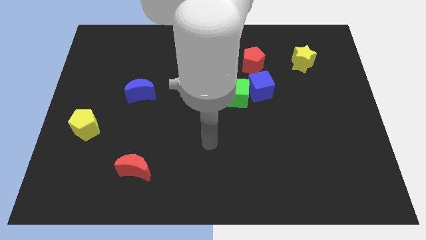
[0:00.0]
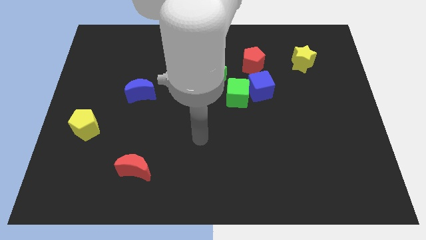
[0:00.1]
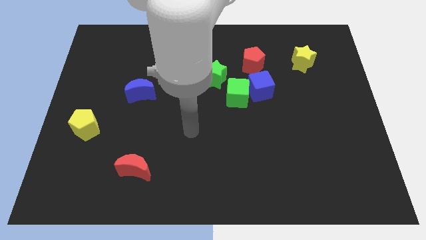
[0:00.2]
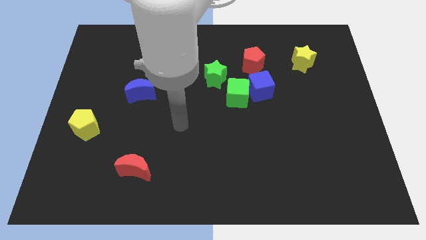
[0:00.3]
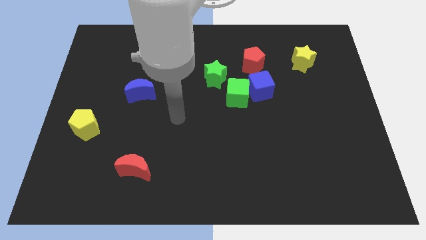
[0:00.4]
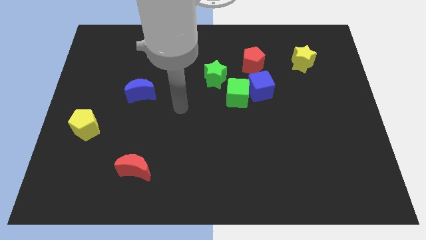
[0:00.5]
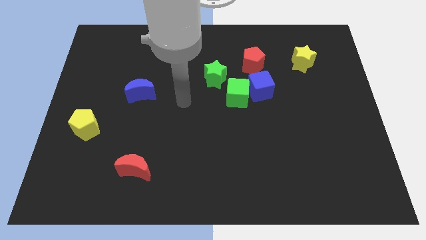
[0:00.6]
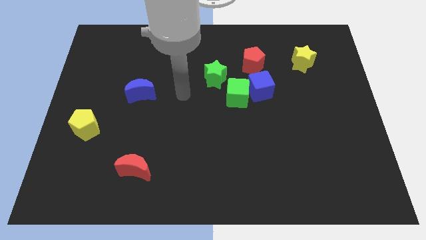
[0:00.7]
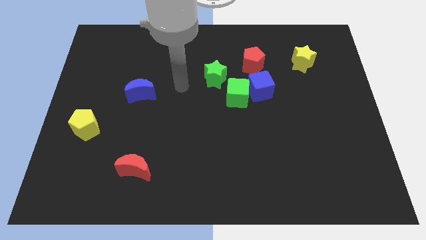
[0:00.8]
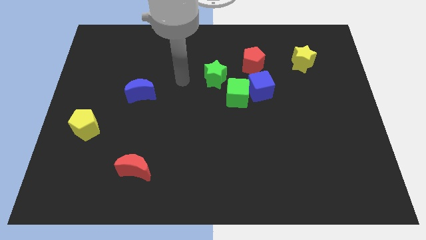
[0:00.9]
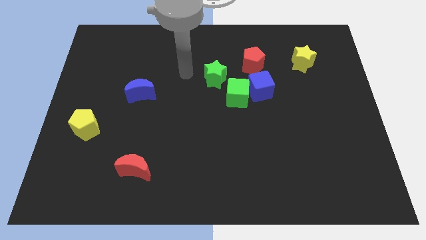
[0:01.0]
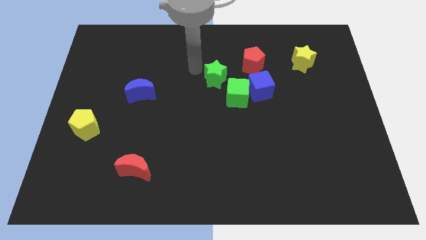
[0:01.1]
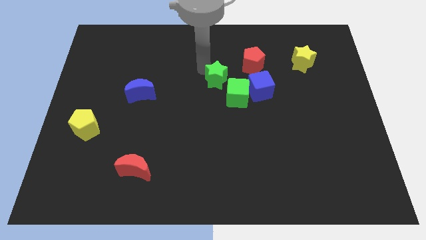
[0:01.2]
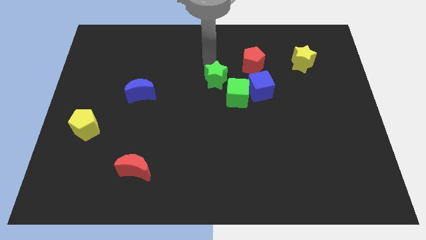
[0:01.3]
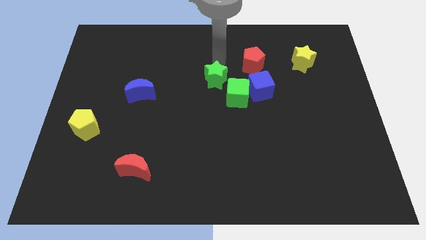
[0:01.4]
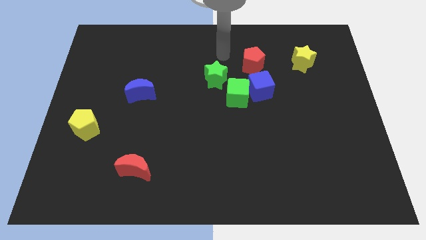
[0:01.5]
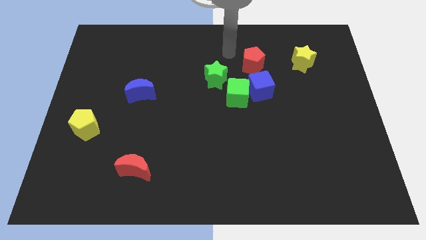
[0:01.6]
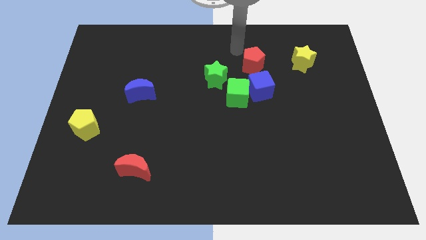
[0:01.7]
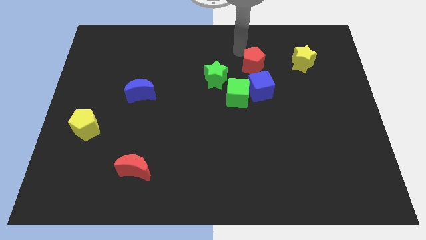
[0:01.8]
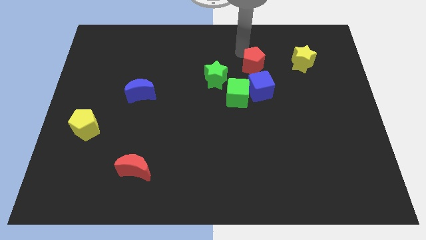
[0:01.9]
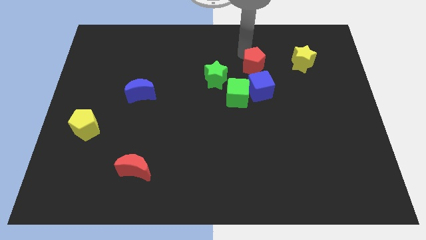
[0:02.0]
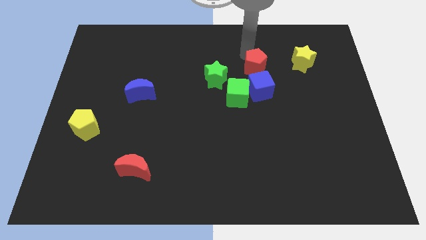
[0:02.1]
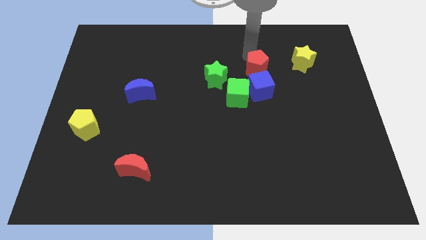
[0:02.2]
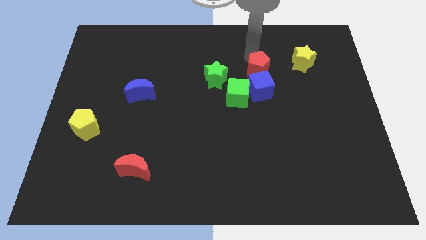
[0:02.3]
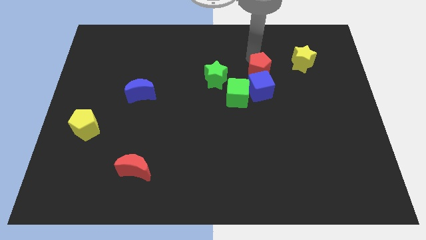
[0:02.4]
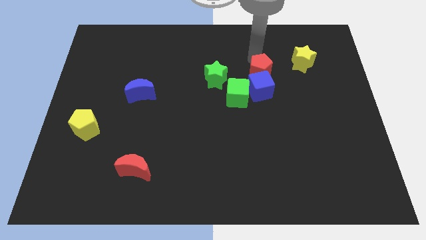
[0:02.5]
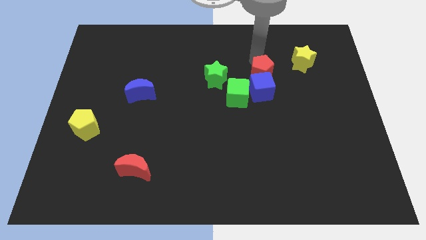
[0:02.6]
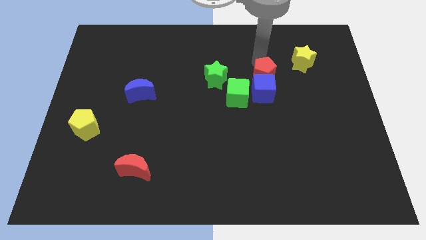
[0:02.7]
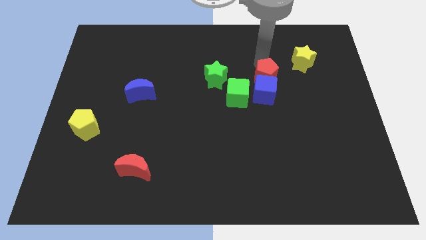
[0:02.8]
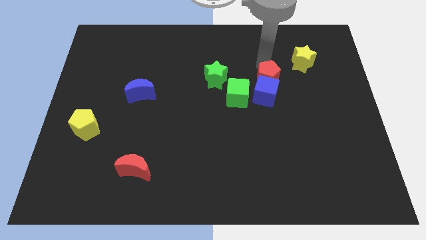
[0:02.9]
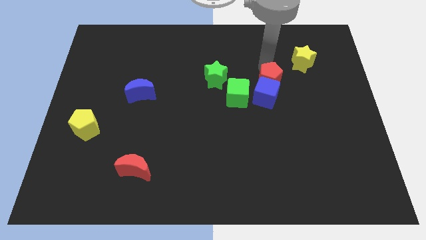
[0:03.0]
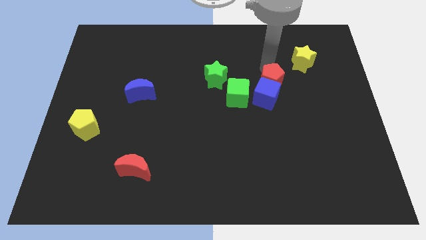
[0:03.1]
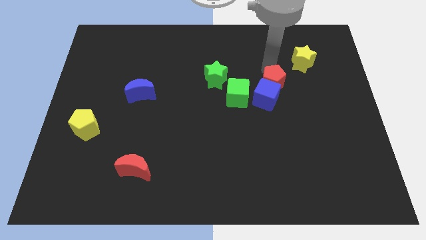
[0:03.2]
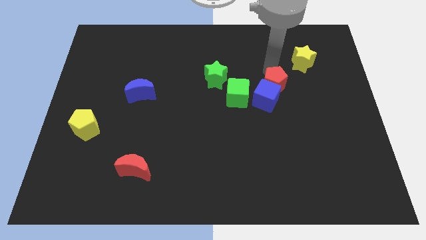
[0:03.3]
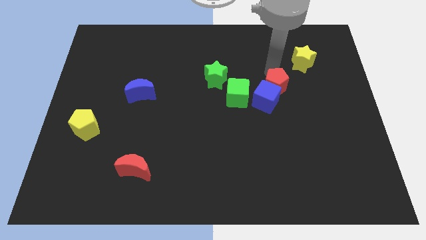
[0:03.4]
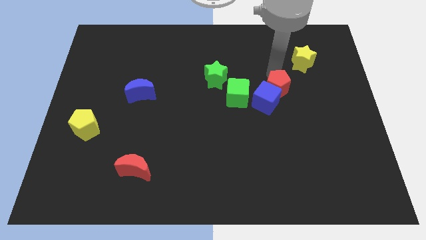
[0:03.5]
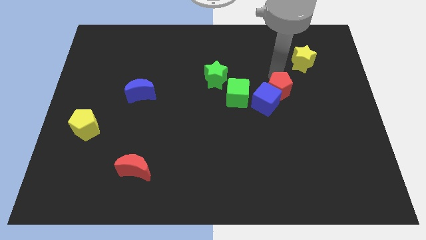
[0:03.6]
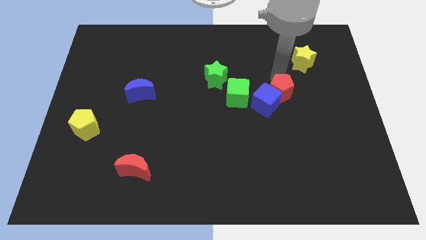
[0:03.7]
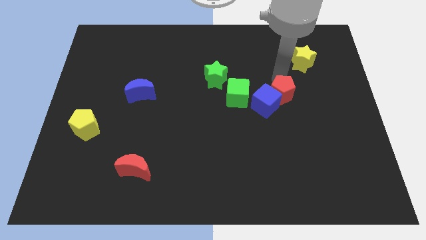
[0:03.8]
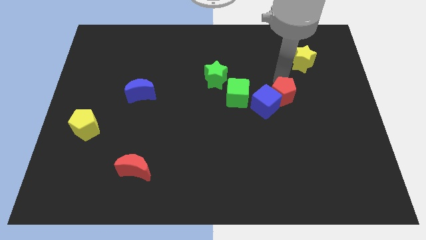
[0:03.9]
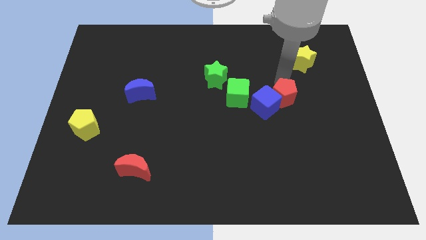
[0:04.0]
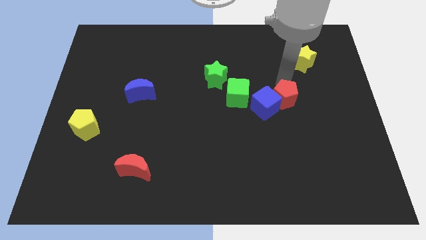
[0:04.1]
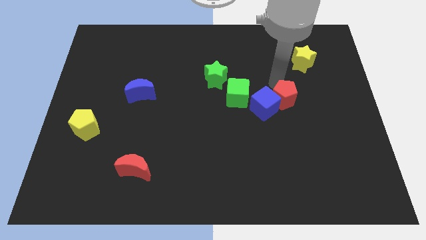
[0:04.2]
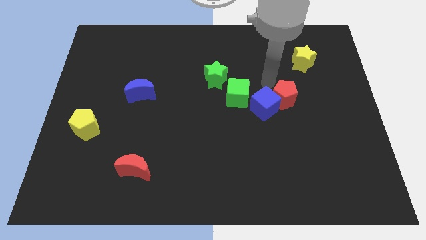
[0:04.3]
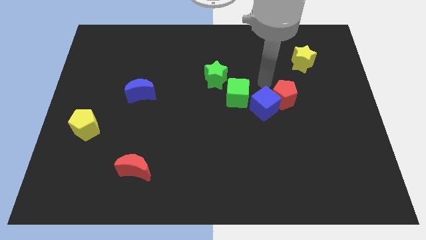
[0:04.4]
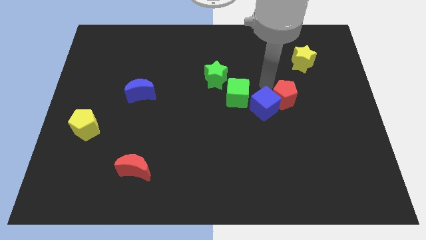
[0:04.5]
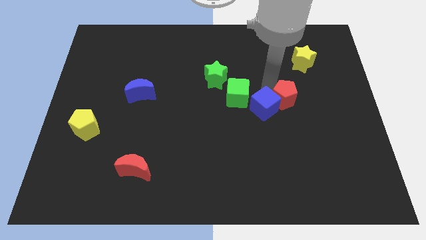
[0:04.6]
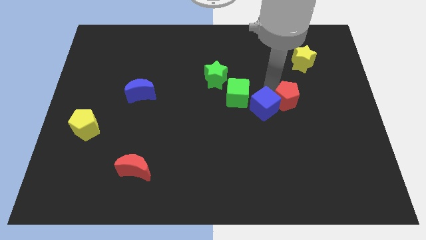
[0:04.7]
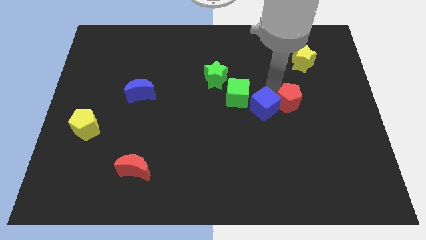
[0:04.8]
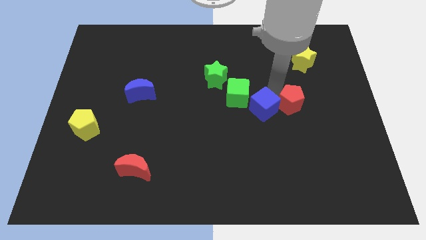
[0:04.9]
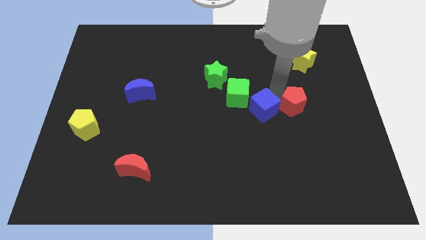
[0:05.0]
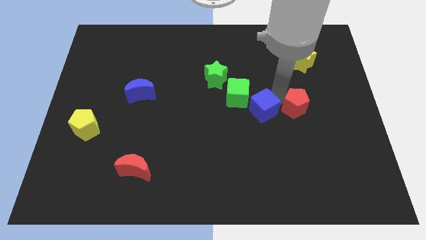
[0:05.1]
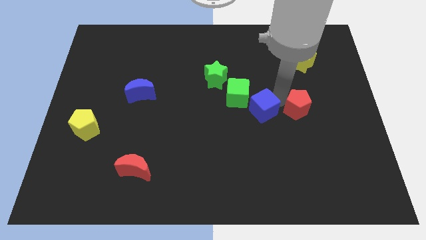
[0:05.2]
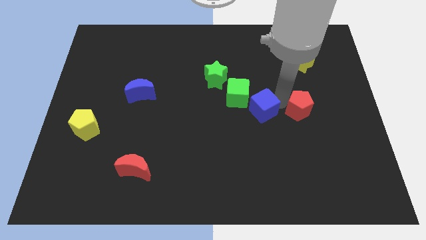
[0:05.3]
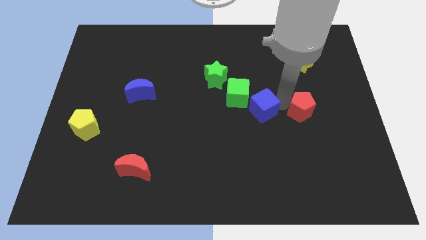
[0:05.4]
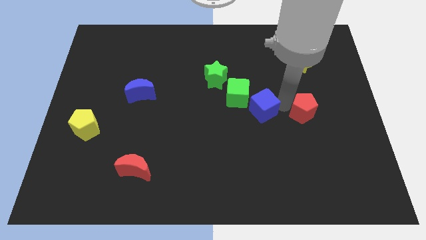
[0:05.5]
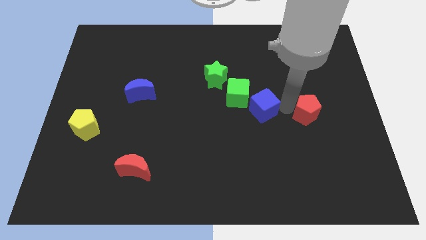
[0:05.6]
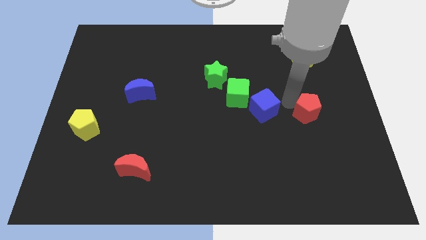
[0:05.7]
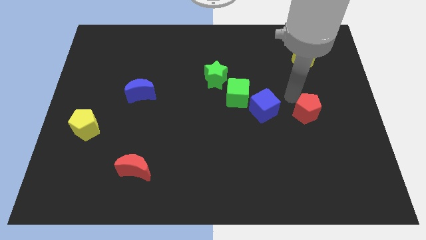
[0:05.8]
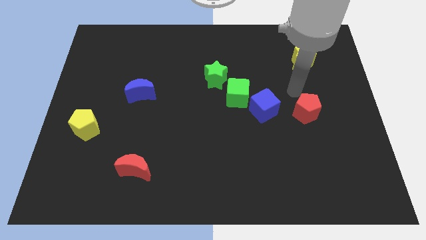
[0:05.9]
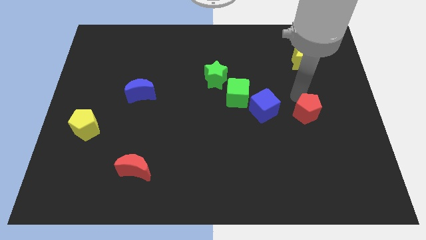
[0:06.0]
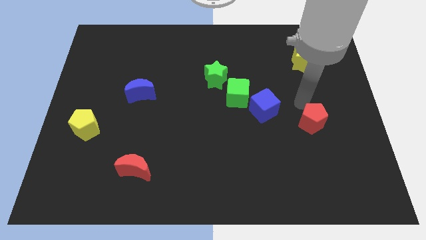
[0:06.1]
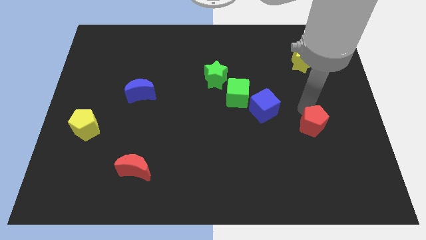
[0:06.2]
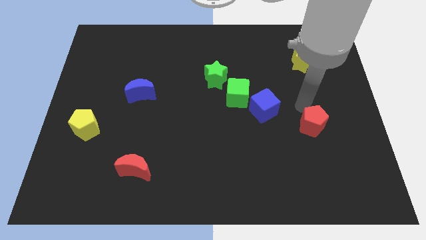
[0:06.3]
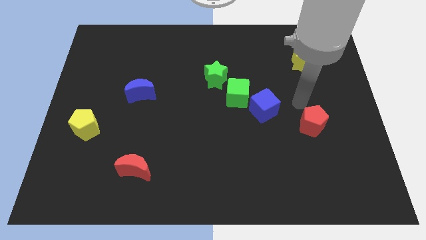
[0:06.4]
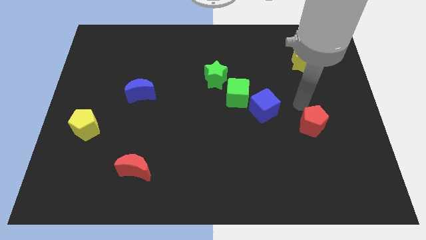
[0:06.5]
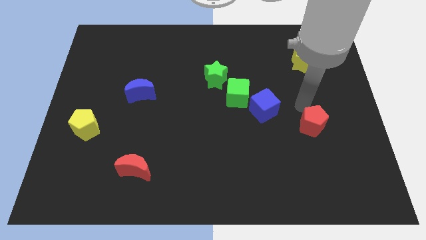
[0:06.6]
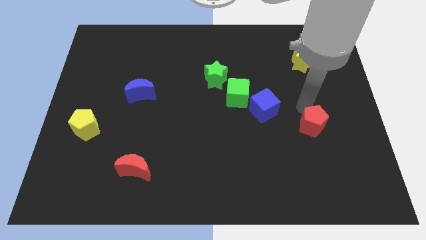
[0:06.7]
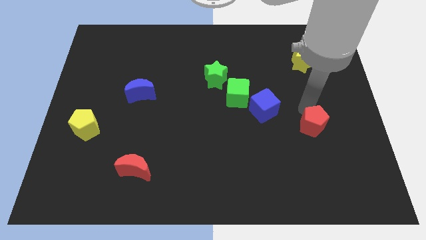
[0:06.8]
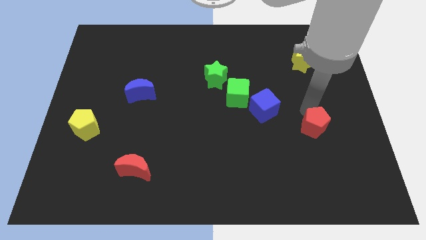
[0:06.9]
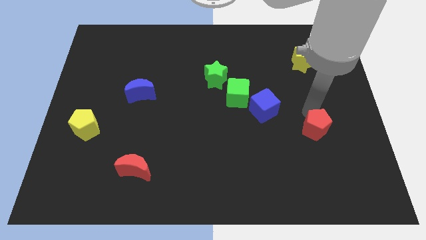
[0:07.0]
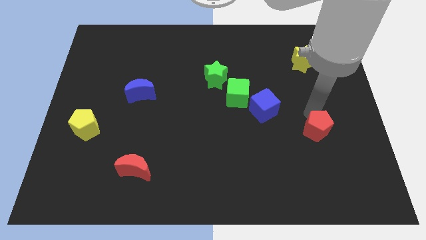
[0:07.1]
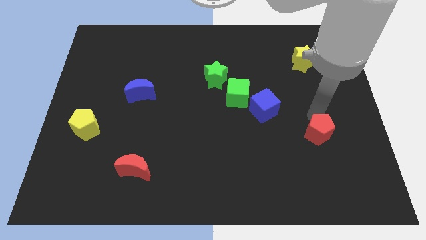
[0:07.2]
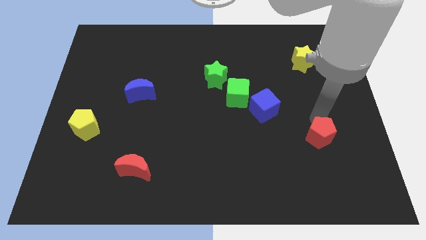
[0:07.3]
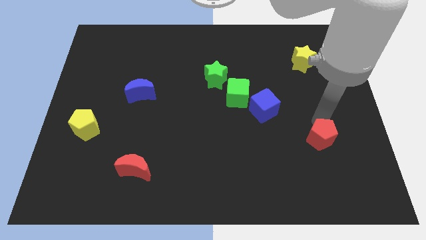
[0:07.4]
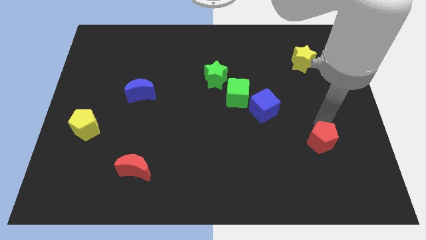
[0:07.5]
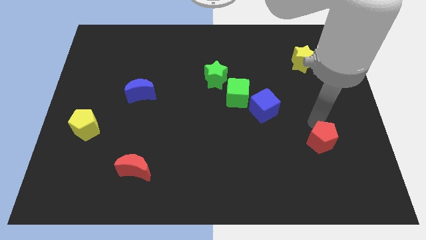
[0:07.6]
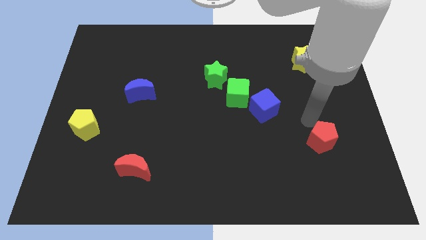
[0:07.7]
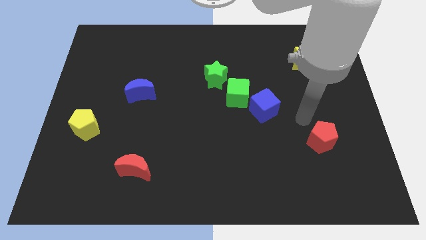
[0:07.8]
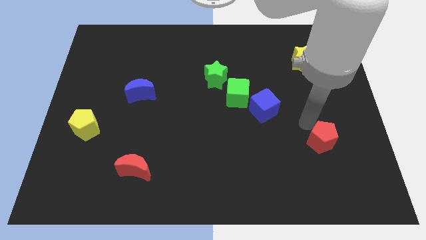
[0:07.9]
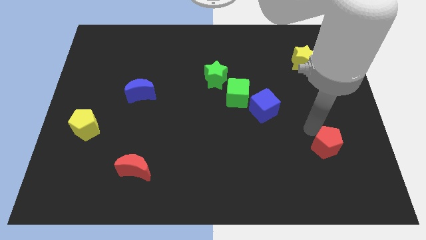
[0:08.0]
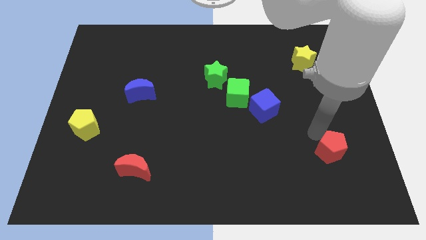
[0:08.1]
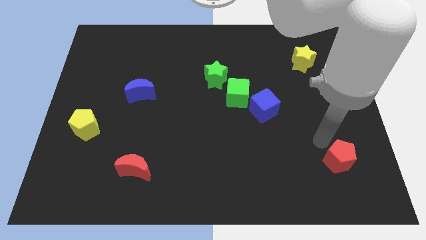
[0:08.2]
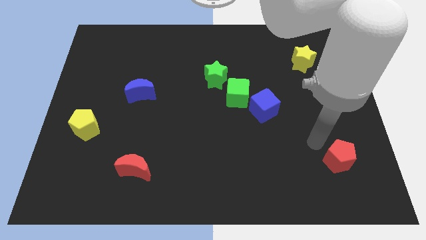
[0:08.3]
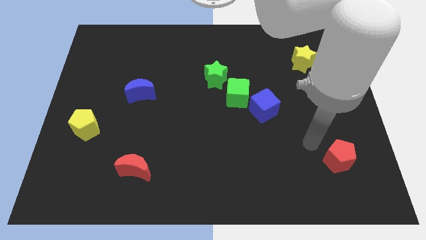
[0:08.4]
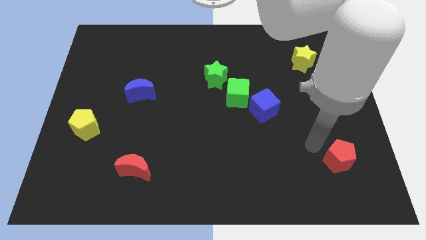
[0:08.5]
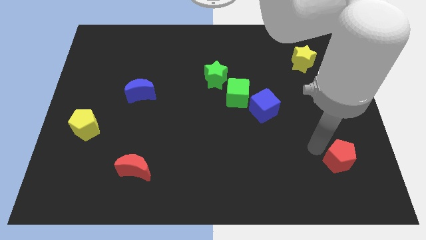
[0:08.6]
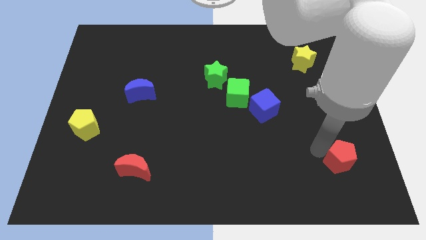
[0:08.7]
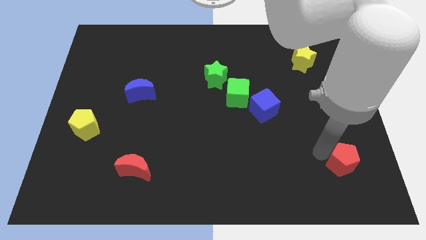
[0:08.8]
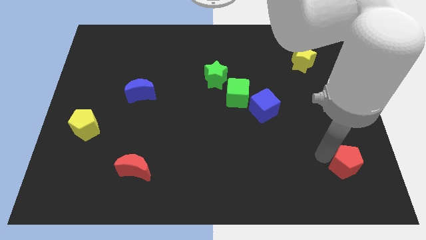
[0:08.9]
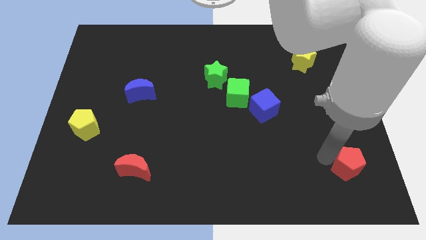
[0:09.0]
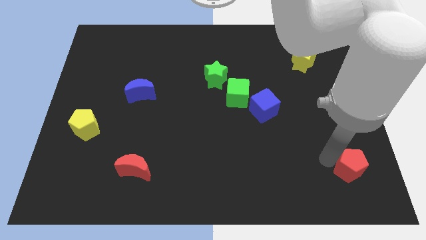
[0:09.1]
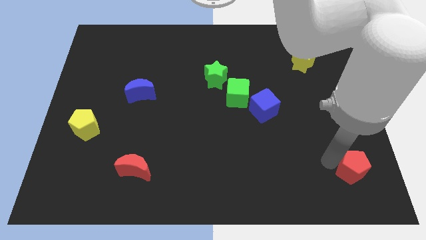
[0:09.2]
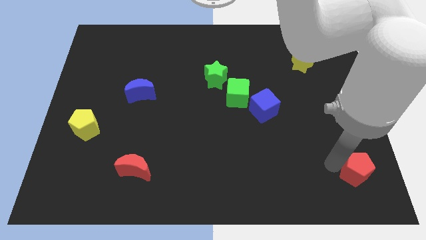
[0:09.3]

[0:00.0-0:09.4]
move the red pentagon to the lower right corner
